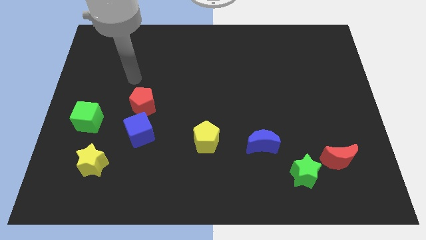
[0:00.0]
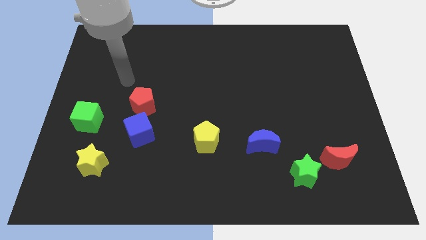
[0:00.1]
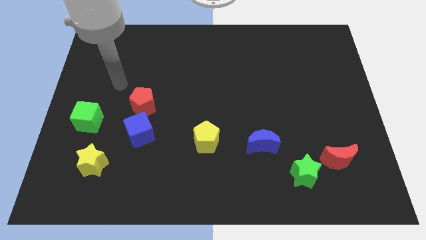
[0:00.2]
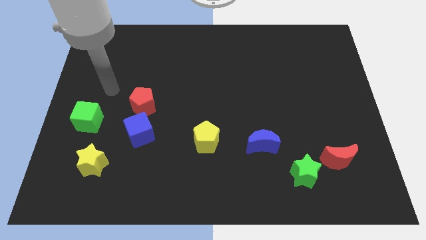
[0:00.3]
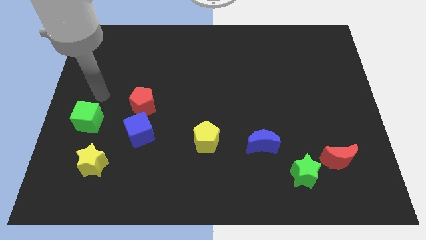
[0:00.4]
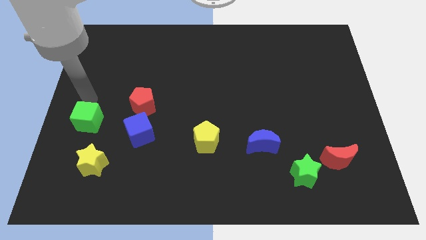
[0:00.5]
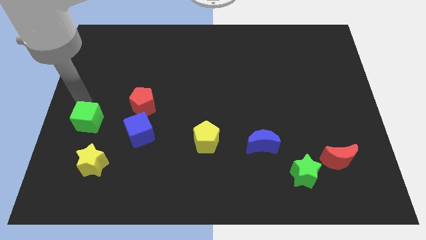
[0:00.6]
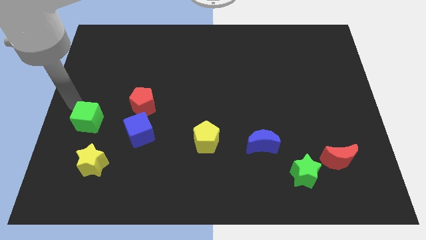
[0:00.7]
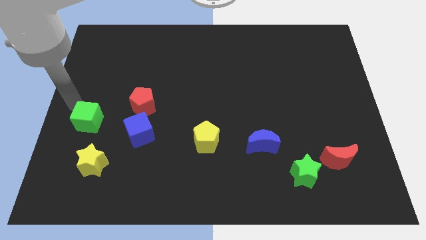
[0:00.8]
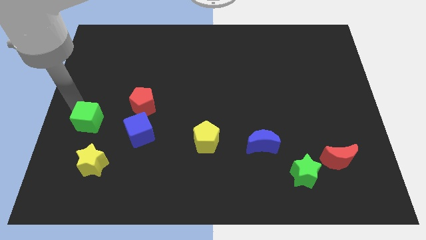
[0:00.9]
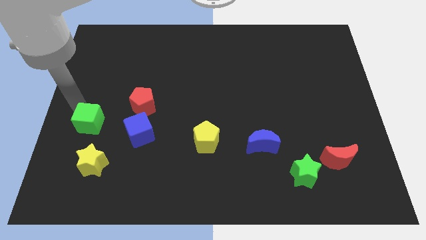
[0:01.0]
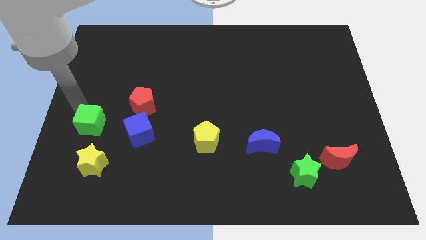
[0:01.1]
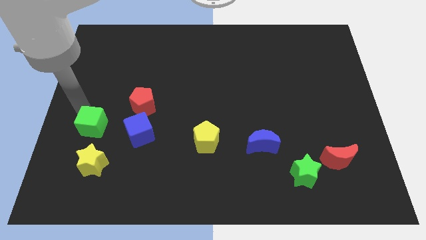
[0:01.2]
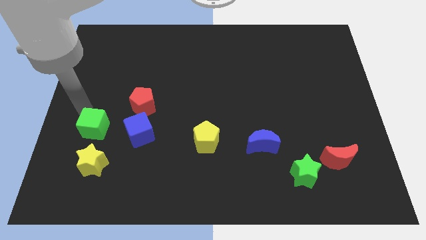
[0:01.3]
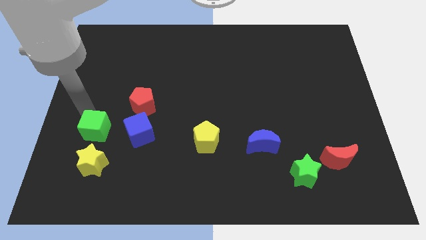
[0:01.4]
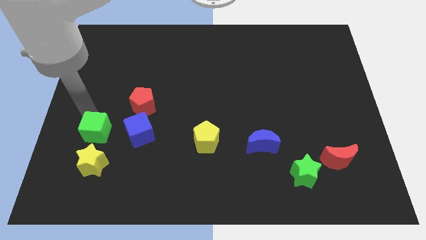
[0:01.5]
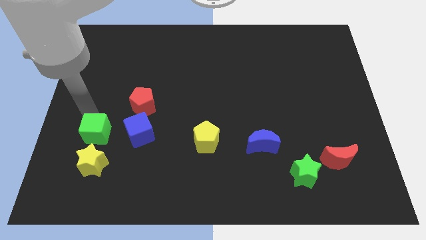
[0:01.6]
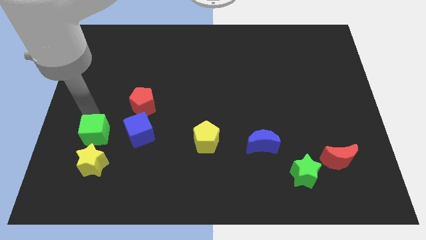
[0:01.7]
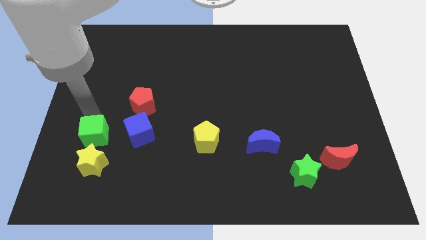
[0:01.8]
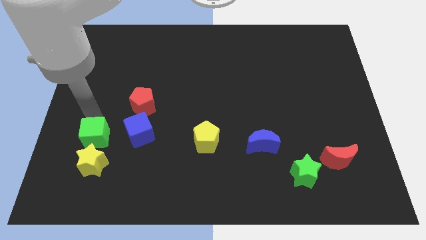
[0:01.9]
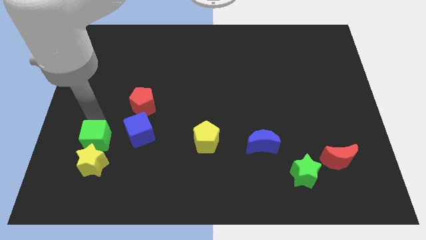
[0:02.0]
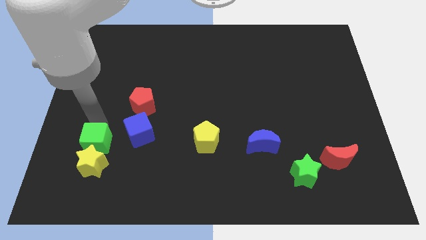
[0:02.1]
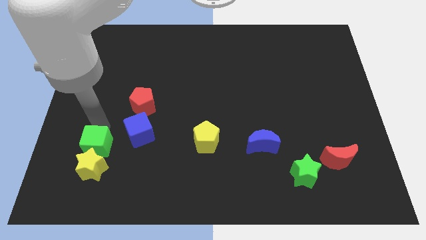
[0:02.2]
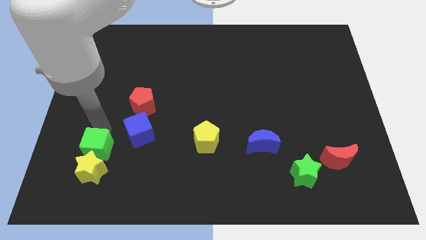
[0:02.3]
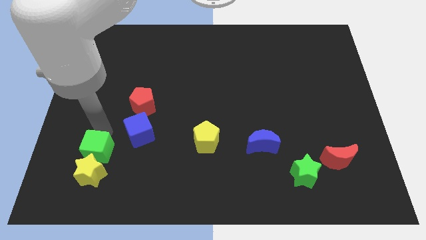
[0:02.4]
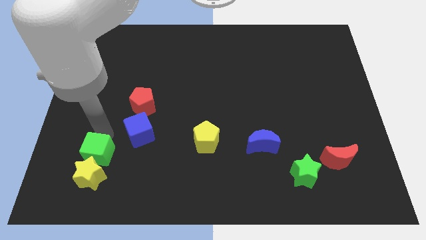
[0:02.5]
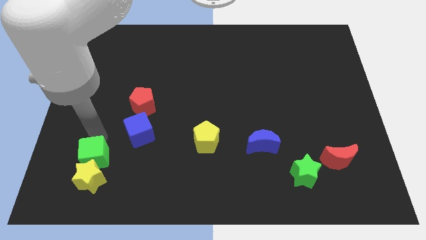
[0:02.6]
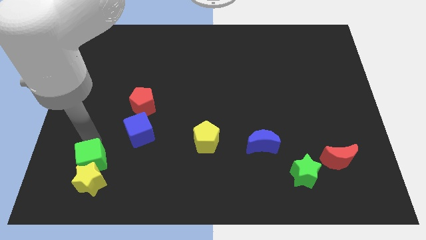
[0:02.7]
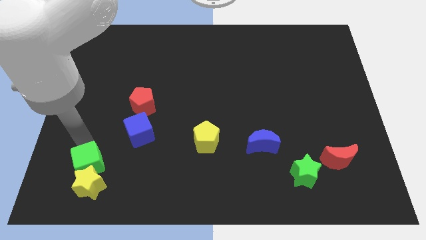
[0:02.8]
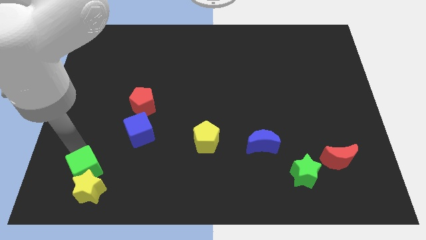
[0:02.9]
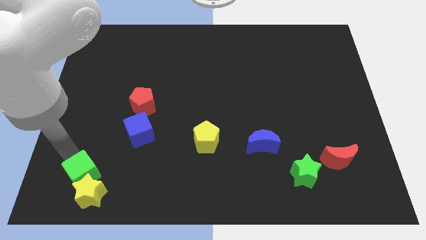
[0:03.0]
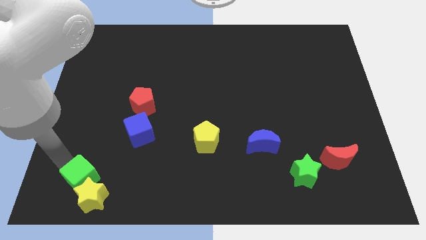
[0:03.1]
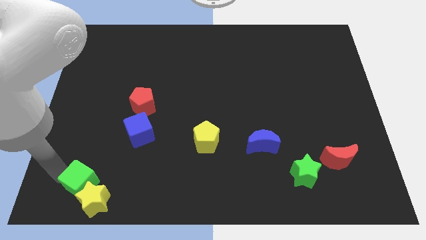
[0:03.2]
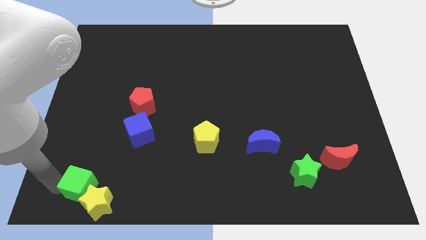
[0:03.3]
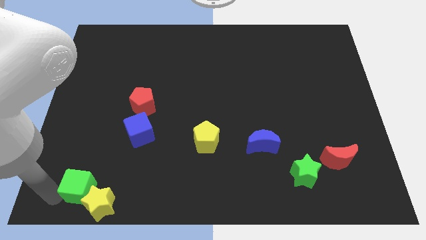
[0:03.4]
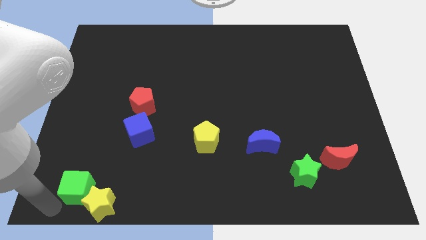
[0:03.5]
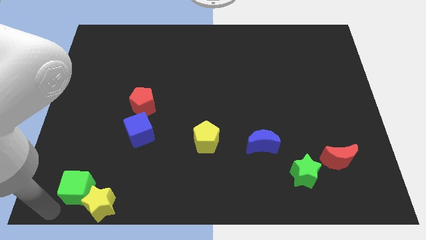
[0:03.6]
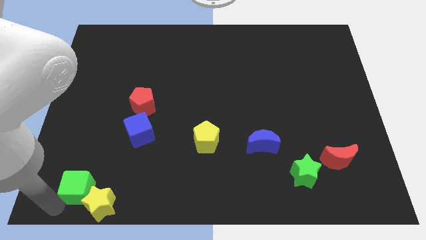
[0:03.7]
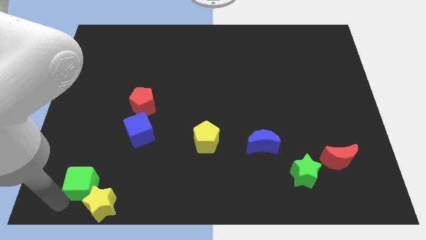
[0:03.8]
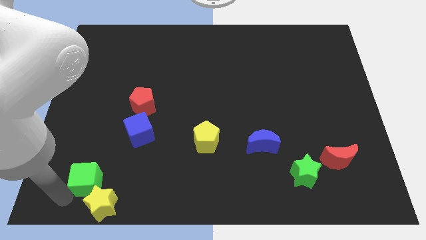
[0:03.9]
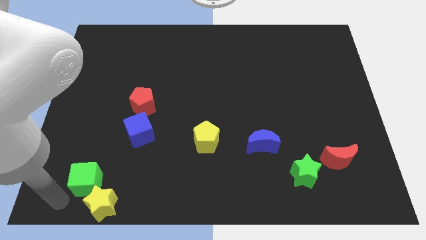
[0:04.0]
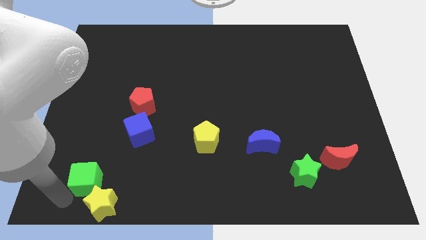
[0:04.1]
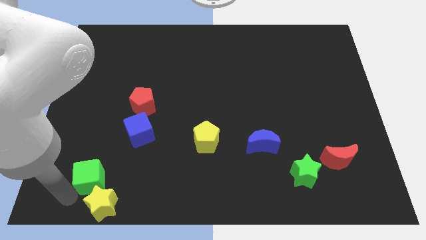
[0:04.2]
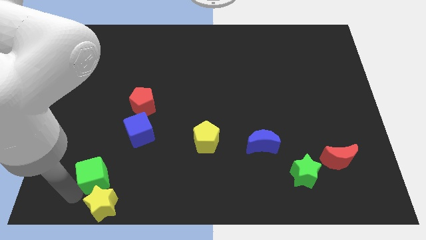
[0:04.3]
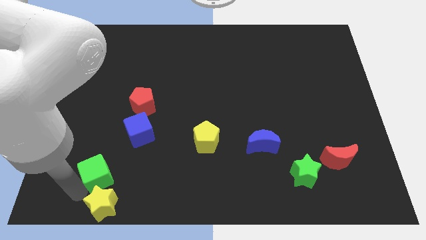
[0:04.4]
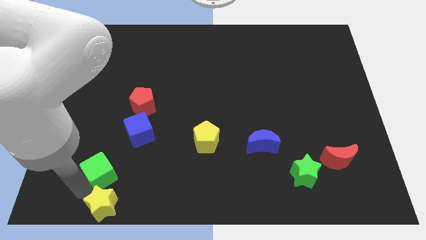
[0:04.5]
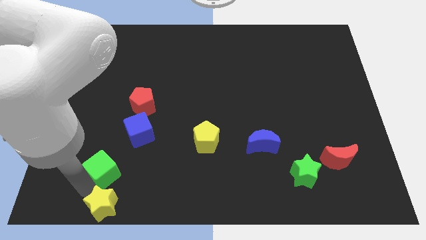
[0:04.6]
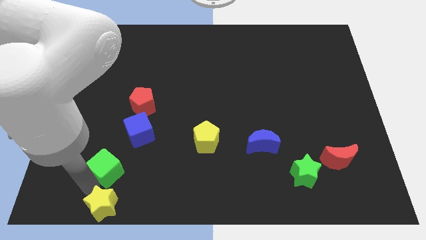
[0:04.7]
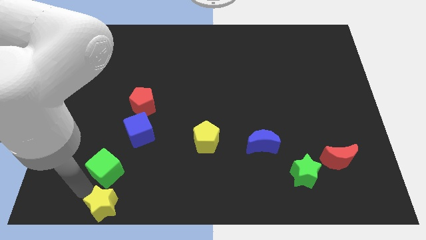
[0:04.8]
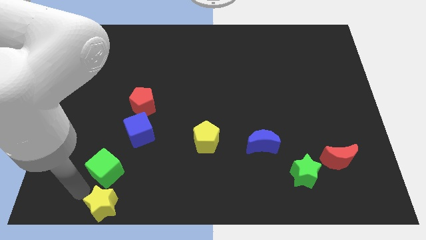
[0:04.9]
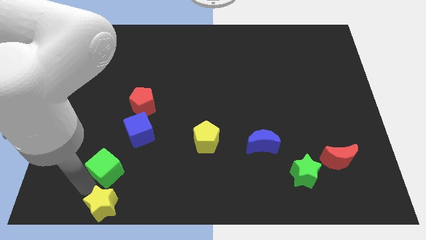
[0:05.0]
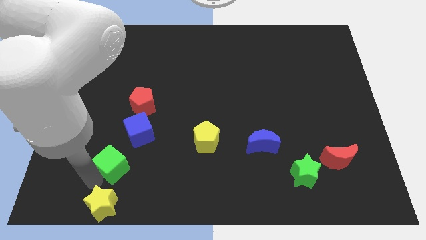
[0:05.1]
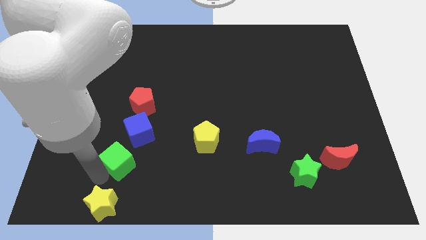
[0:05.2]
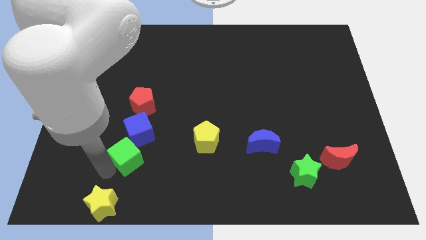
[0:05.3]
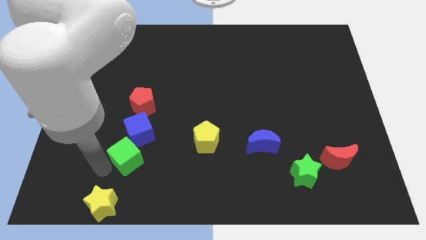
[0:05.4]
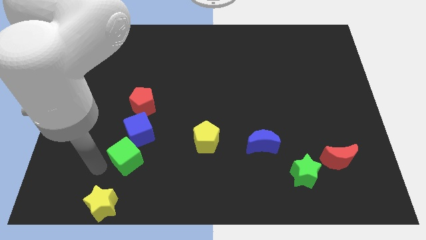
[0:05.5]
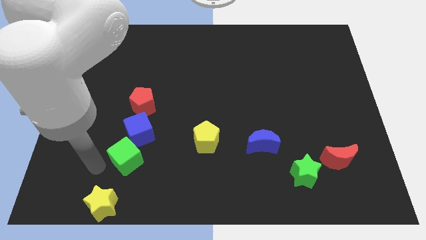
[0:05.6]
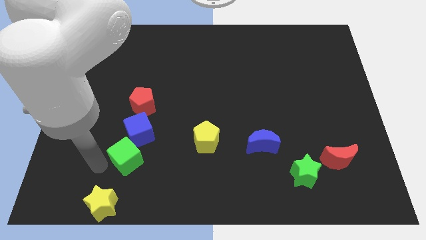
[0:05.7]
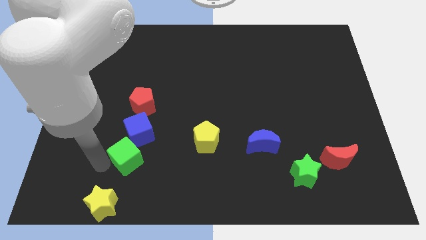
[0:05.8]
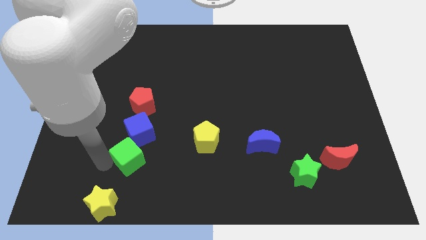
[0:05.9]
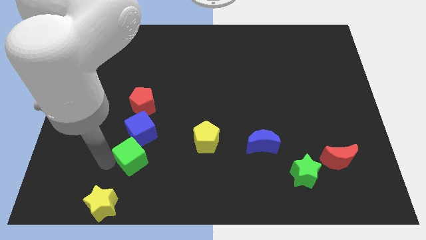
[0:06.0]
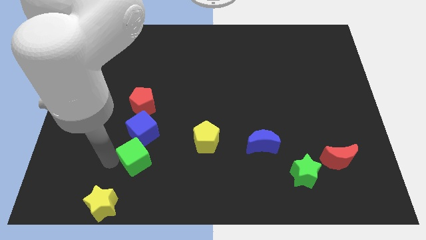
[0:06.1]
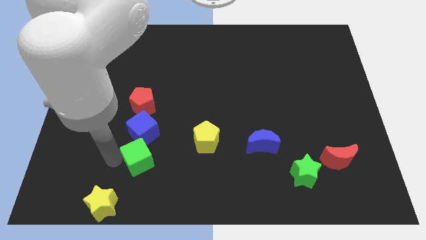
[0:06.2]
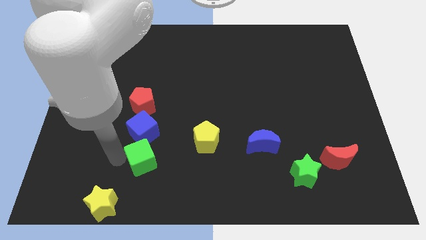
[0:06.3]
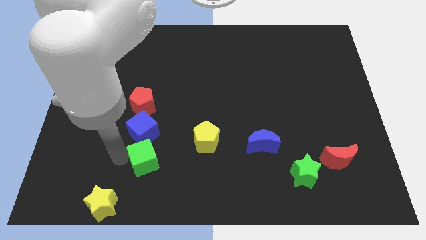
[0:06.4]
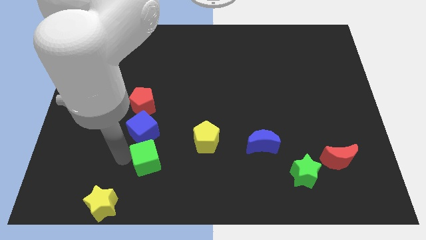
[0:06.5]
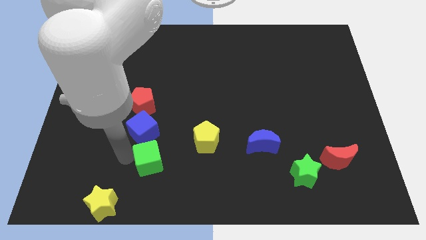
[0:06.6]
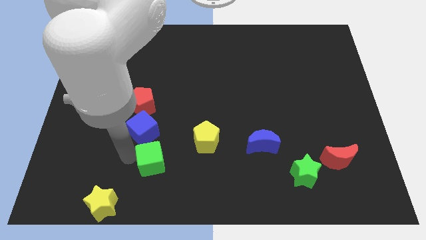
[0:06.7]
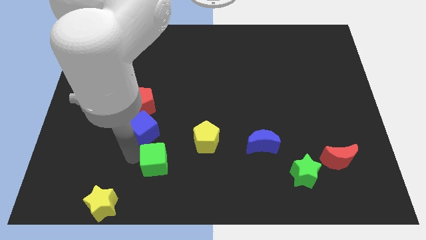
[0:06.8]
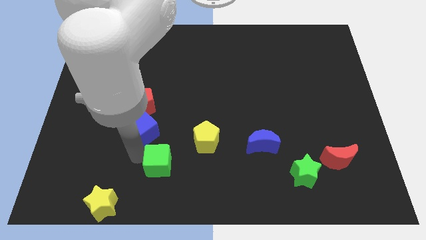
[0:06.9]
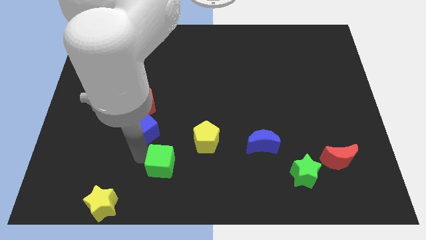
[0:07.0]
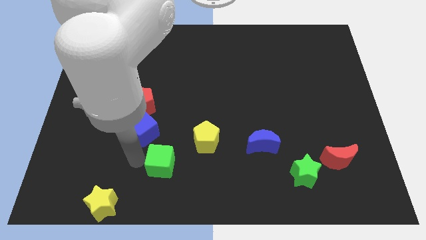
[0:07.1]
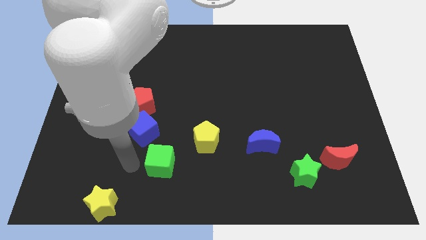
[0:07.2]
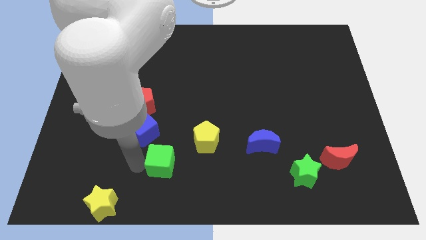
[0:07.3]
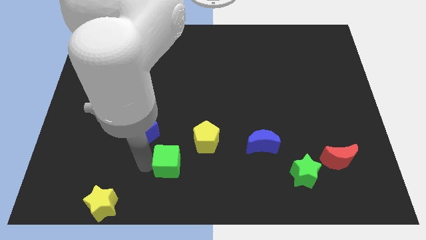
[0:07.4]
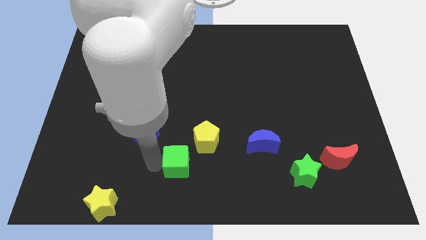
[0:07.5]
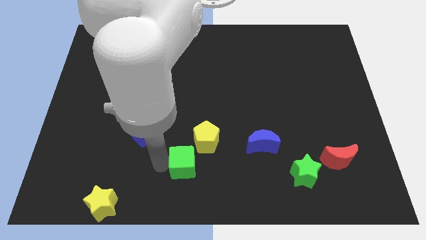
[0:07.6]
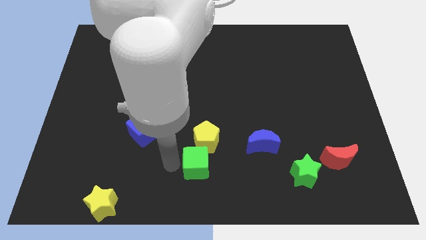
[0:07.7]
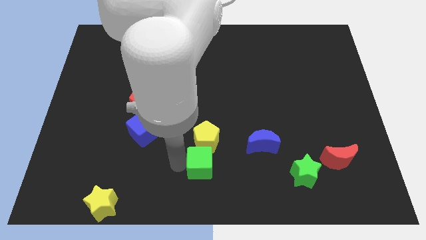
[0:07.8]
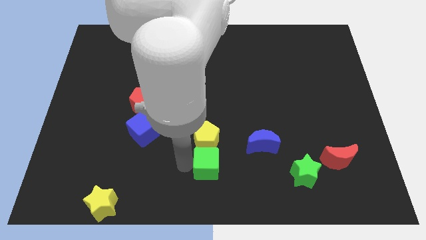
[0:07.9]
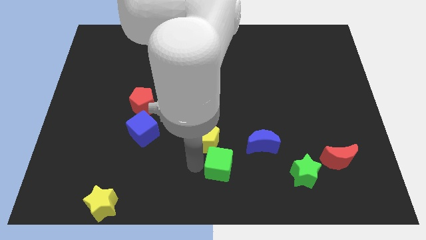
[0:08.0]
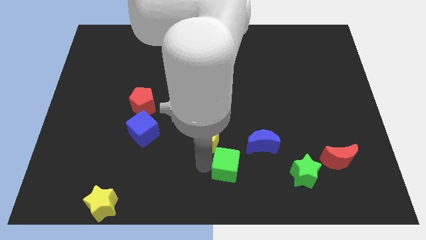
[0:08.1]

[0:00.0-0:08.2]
push the green cube to the left side of the green star
